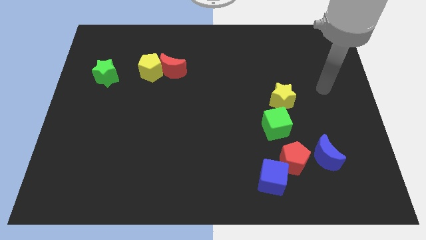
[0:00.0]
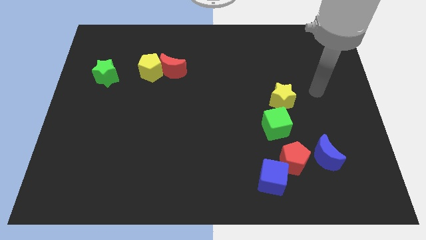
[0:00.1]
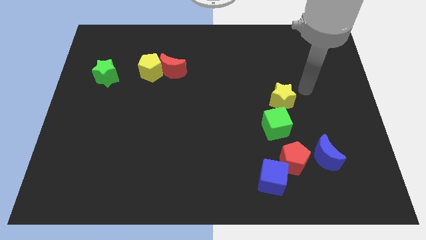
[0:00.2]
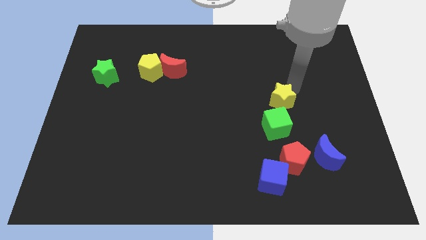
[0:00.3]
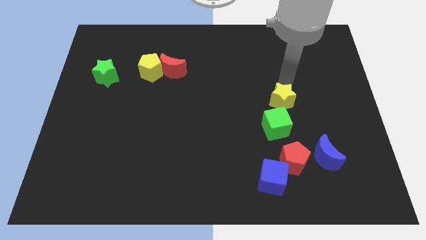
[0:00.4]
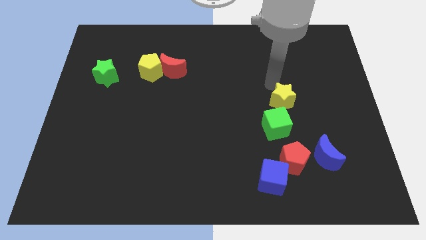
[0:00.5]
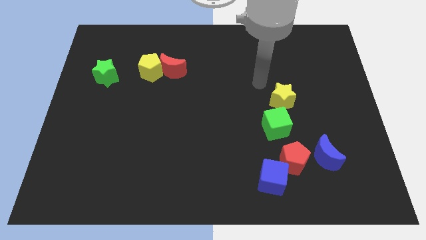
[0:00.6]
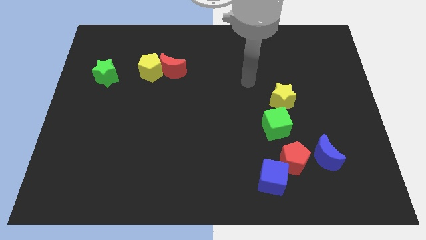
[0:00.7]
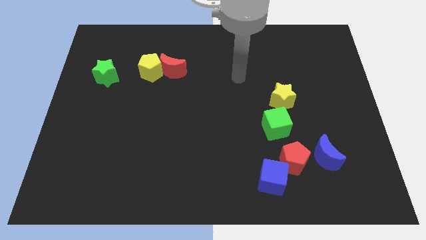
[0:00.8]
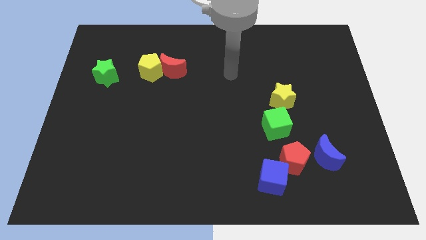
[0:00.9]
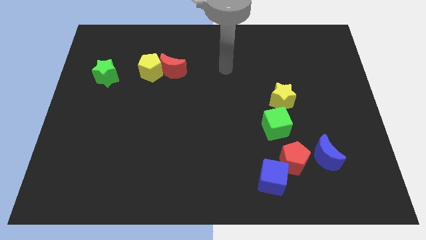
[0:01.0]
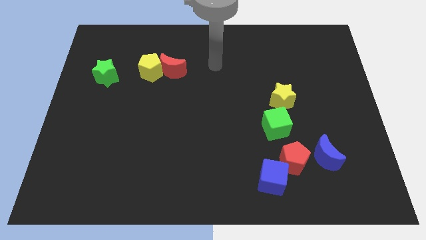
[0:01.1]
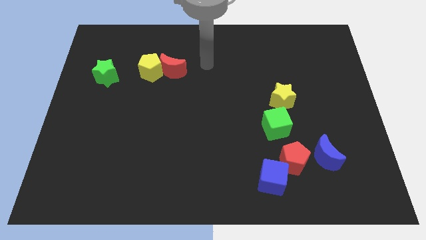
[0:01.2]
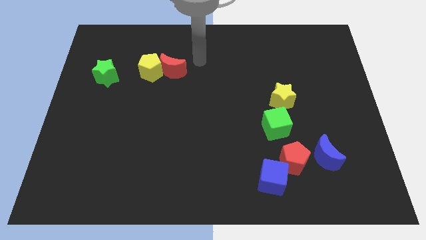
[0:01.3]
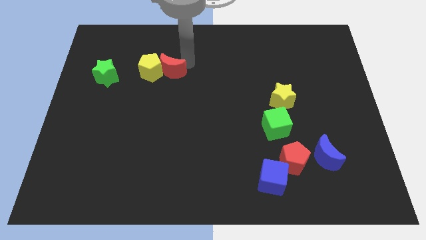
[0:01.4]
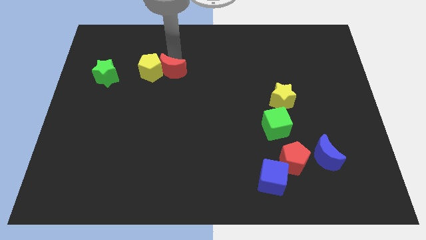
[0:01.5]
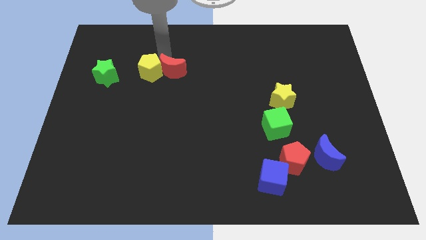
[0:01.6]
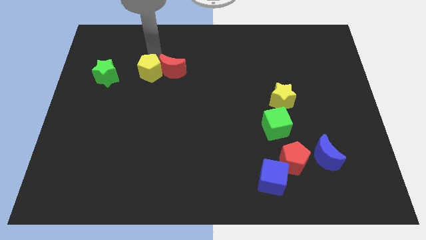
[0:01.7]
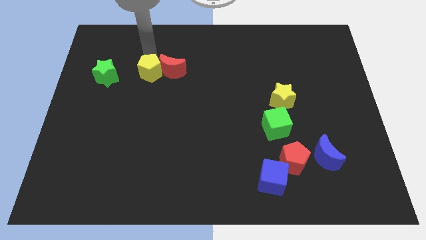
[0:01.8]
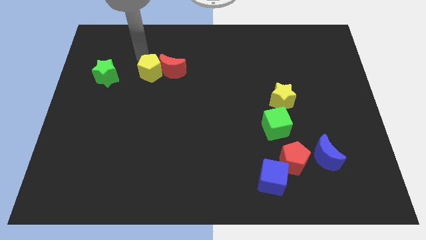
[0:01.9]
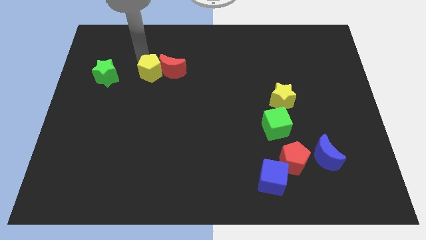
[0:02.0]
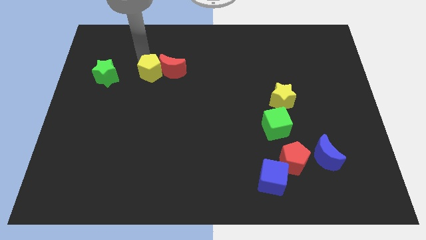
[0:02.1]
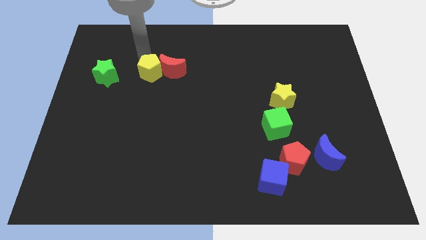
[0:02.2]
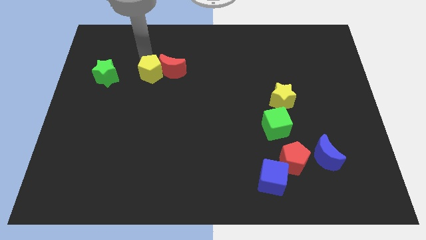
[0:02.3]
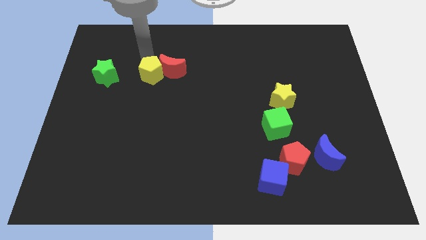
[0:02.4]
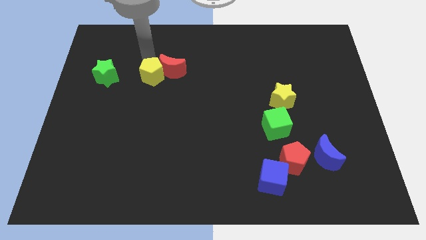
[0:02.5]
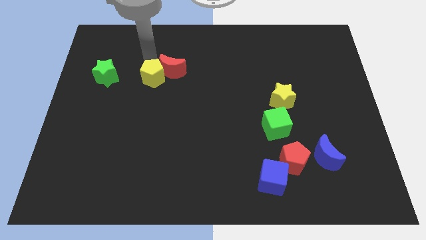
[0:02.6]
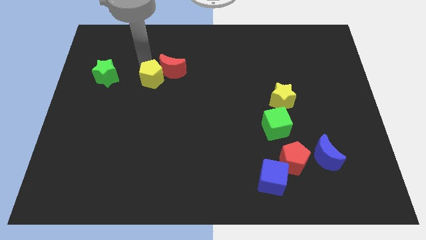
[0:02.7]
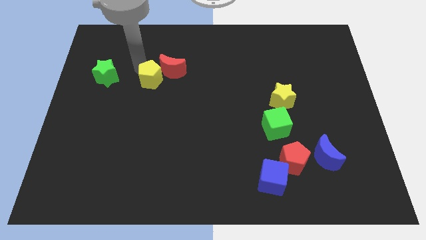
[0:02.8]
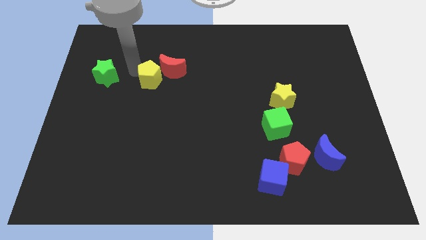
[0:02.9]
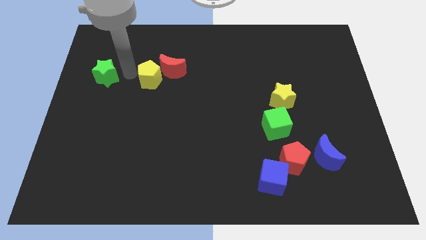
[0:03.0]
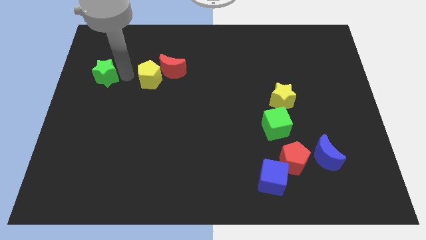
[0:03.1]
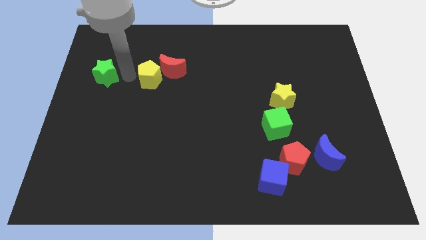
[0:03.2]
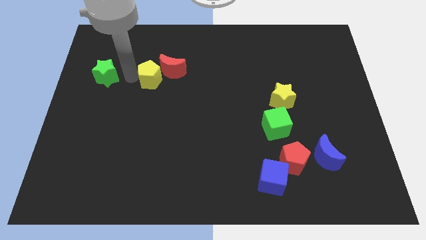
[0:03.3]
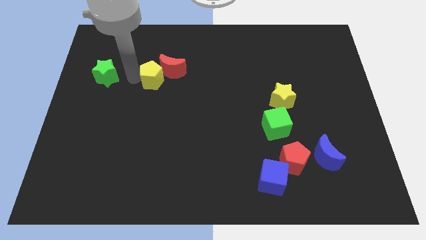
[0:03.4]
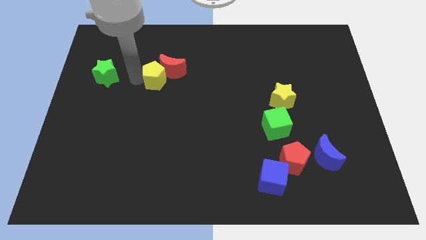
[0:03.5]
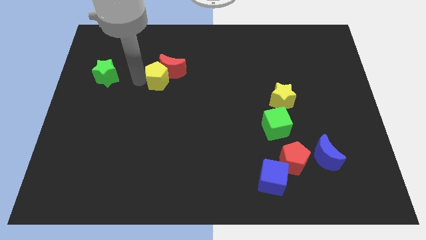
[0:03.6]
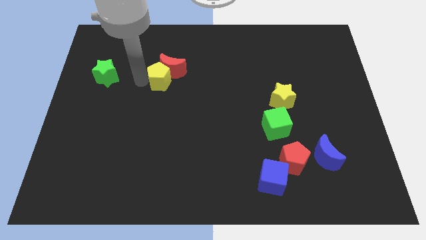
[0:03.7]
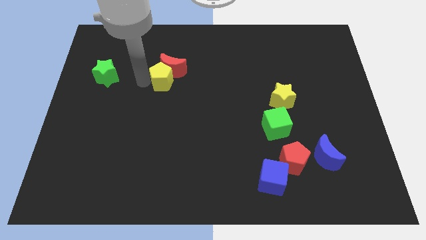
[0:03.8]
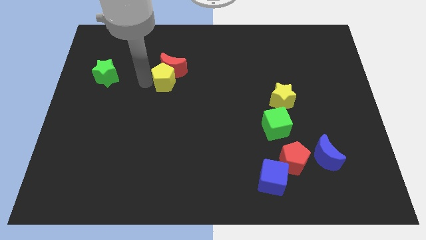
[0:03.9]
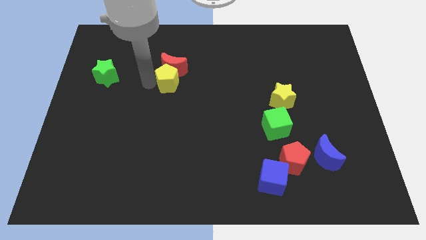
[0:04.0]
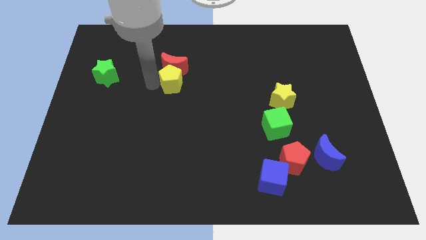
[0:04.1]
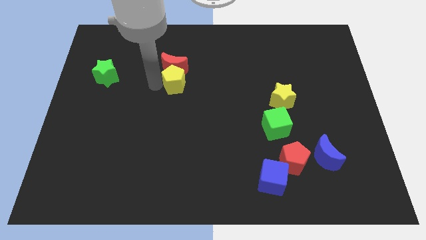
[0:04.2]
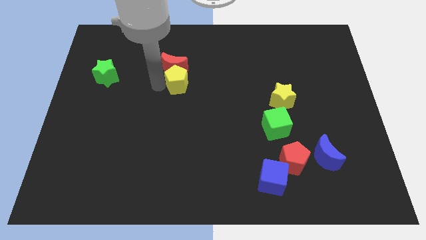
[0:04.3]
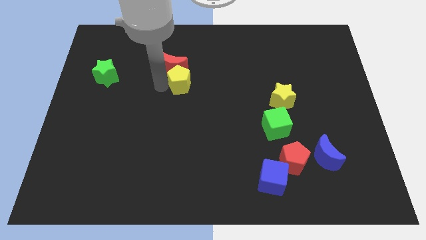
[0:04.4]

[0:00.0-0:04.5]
slightly move the yellow pentagon right

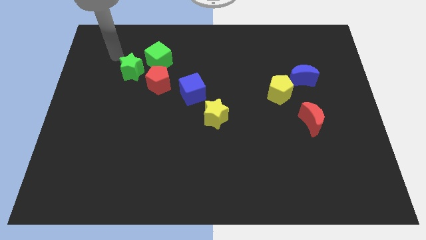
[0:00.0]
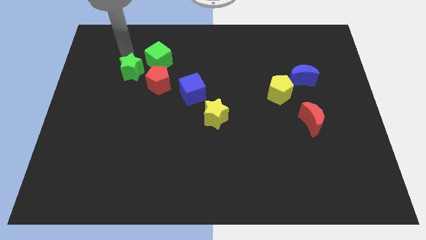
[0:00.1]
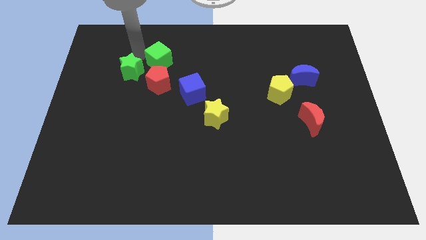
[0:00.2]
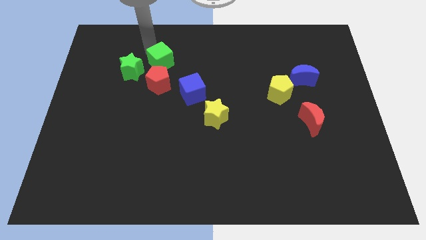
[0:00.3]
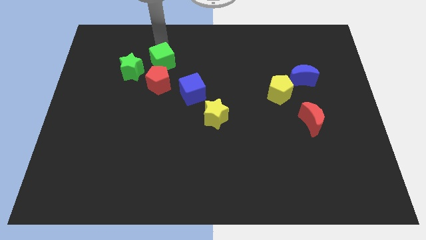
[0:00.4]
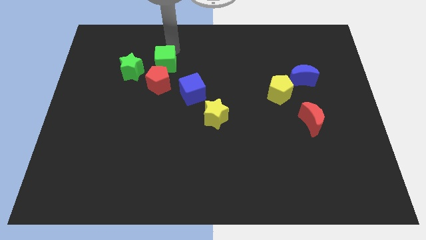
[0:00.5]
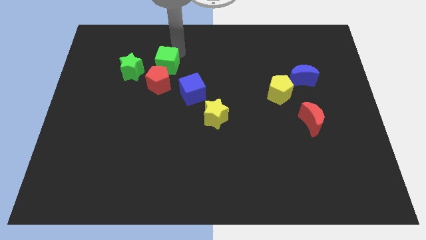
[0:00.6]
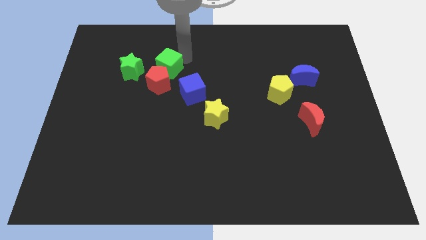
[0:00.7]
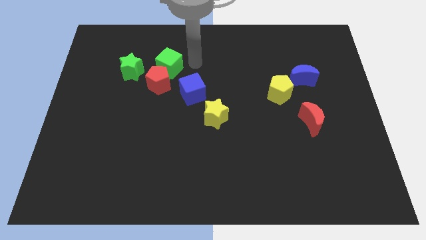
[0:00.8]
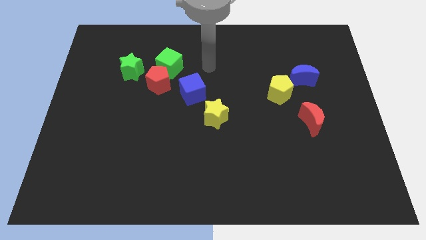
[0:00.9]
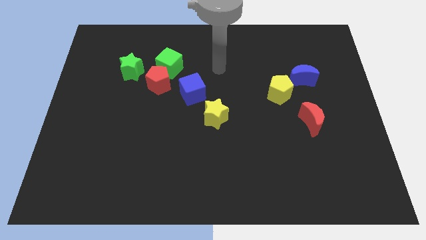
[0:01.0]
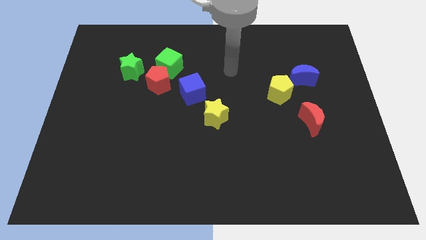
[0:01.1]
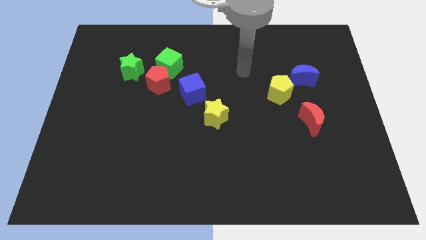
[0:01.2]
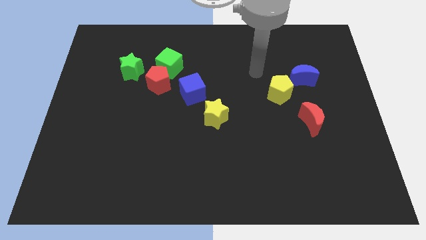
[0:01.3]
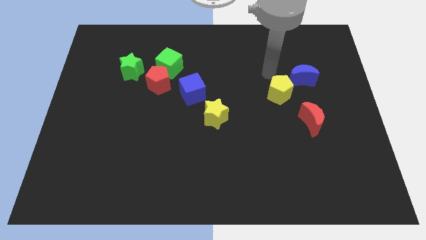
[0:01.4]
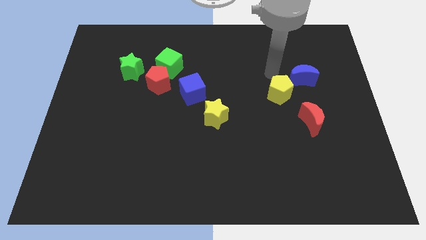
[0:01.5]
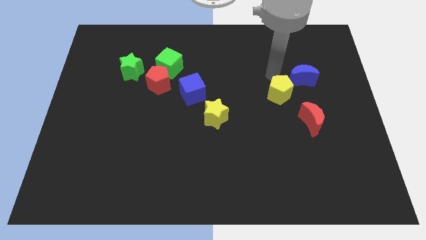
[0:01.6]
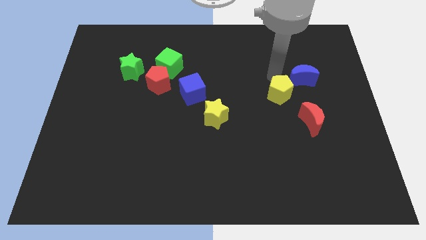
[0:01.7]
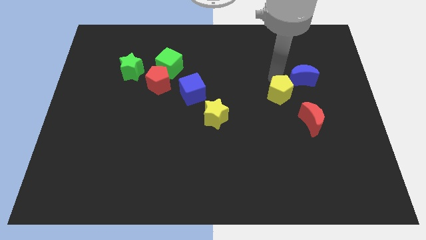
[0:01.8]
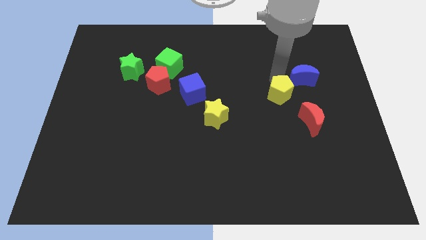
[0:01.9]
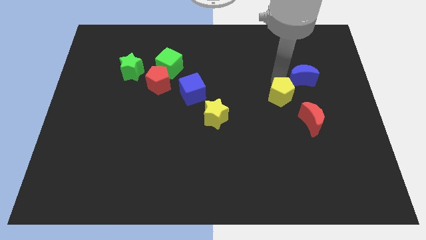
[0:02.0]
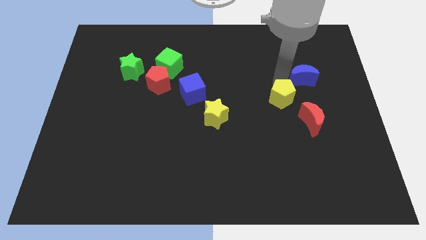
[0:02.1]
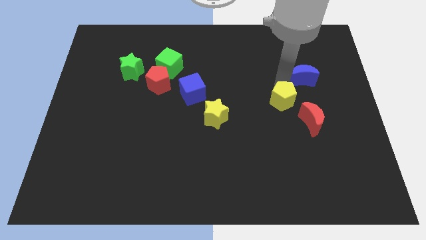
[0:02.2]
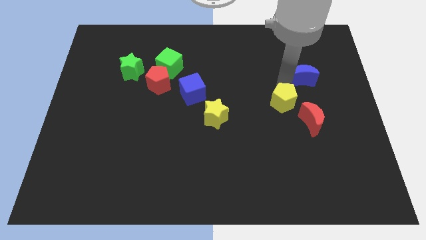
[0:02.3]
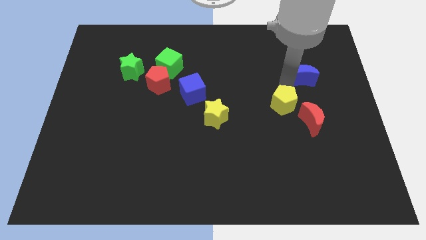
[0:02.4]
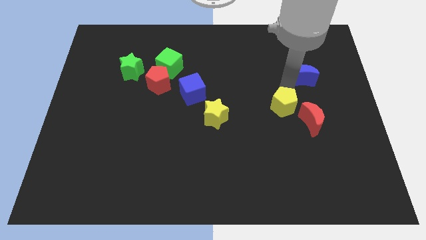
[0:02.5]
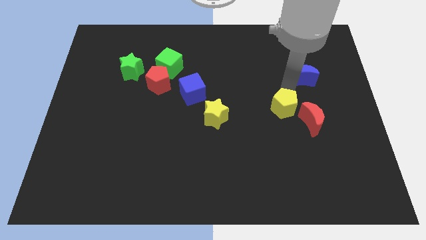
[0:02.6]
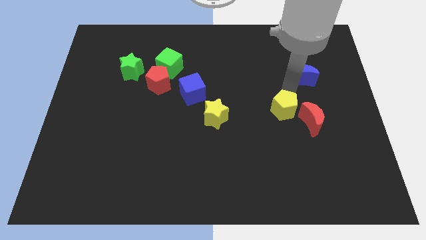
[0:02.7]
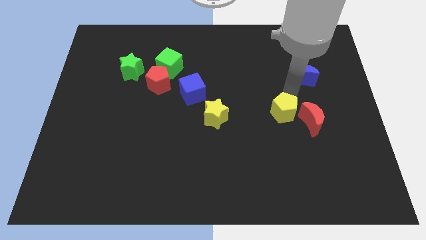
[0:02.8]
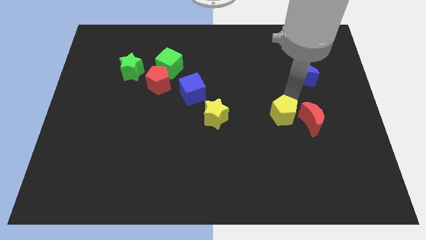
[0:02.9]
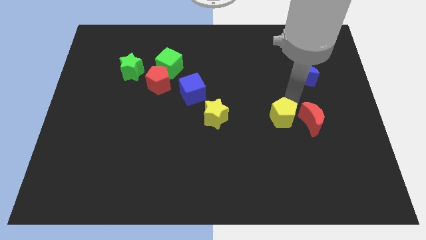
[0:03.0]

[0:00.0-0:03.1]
move the yellow pentagon a little downwards
